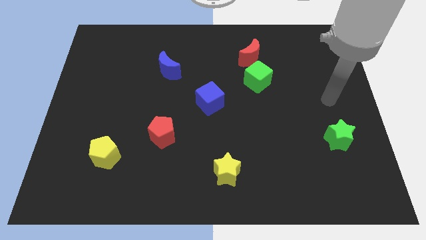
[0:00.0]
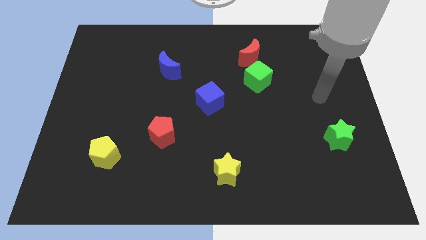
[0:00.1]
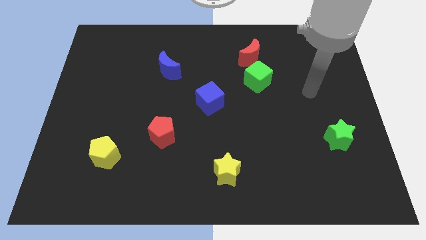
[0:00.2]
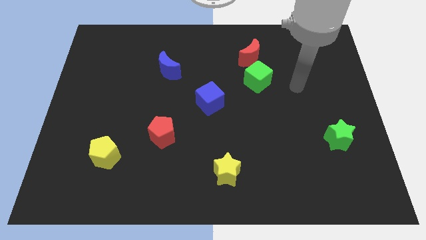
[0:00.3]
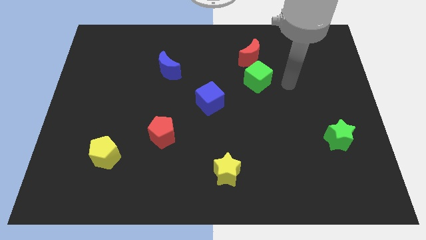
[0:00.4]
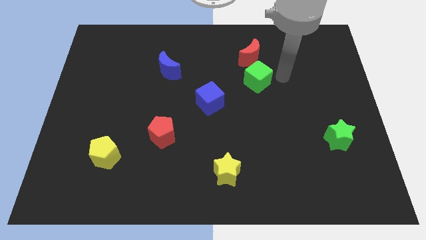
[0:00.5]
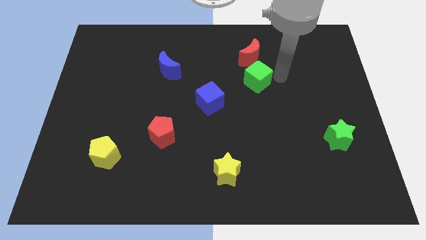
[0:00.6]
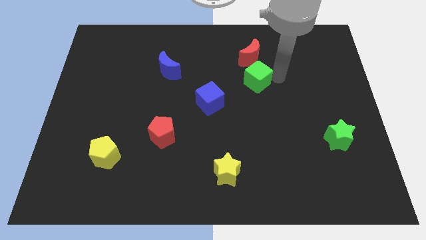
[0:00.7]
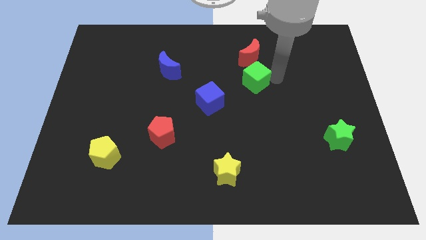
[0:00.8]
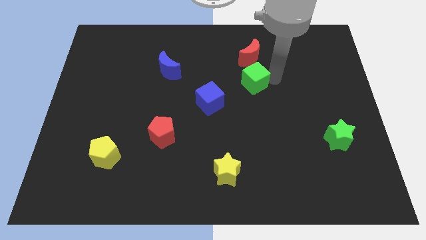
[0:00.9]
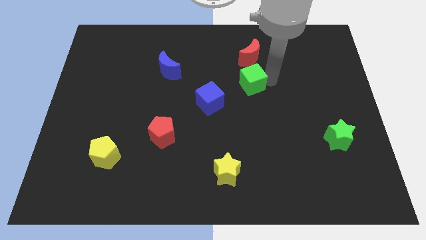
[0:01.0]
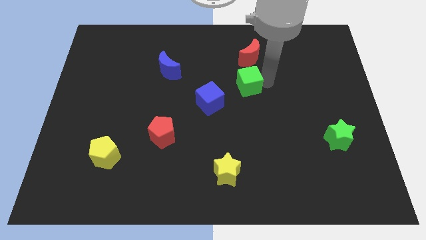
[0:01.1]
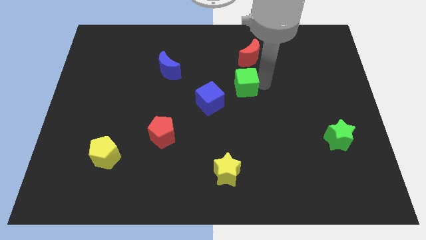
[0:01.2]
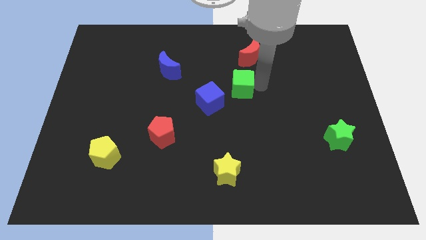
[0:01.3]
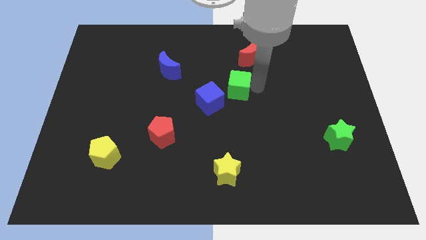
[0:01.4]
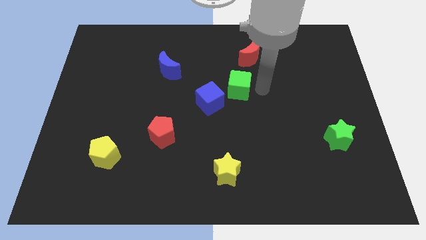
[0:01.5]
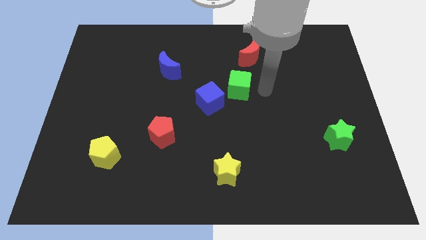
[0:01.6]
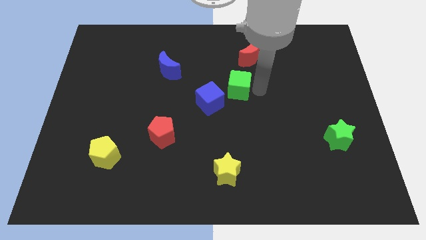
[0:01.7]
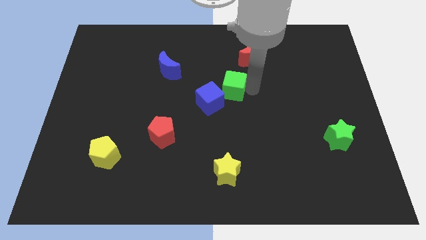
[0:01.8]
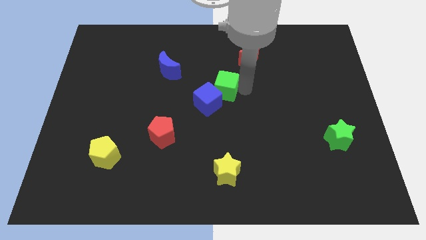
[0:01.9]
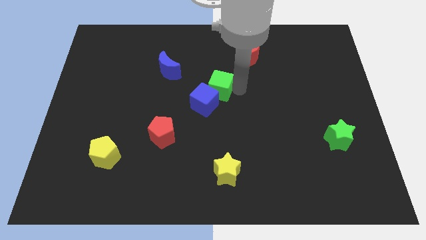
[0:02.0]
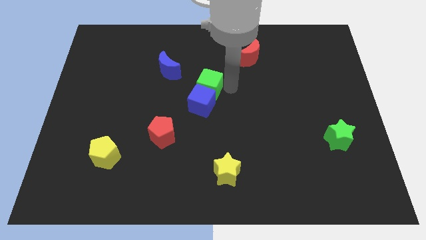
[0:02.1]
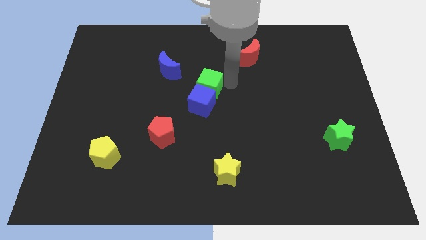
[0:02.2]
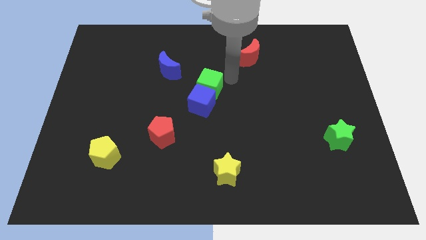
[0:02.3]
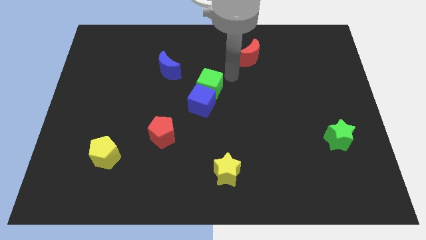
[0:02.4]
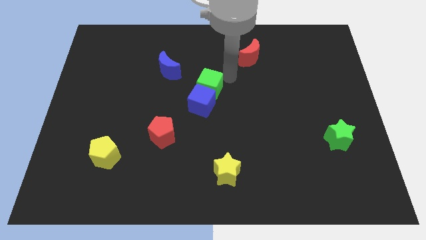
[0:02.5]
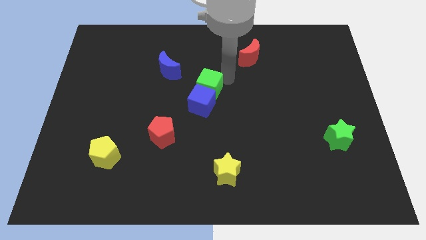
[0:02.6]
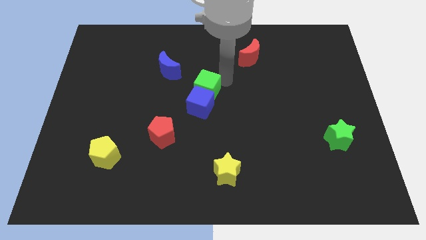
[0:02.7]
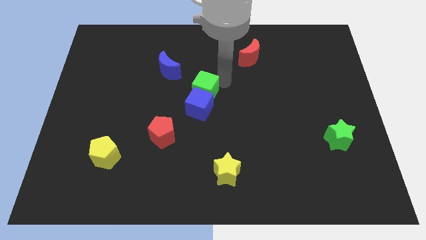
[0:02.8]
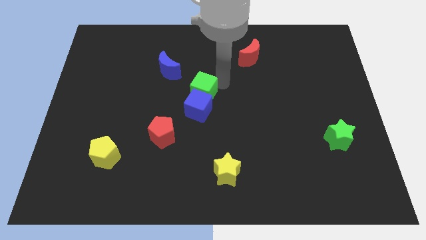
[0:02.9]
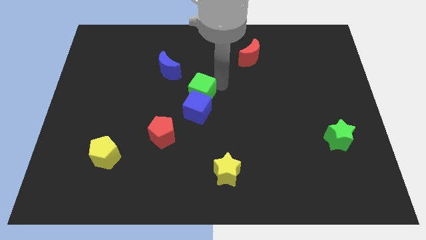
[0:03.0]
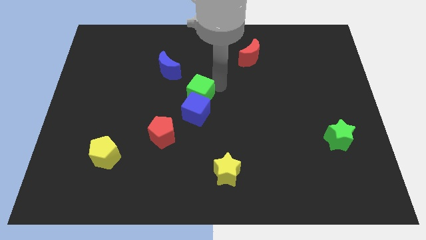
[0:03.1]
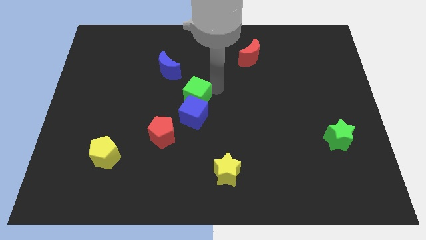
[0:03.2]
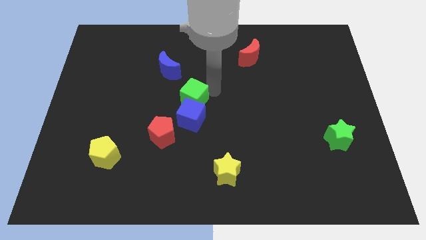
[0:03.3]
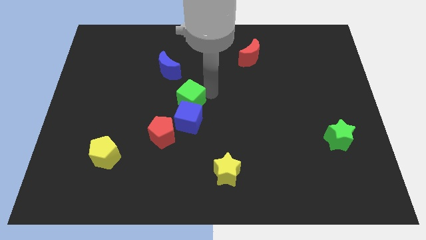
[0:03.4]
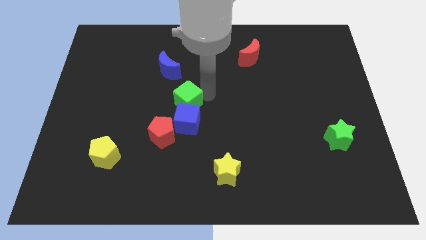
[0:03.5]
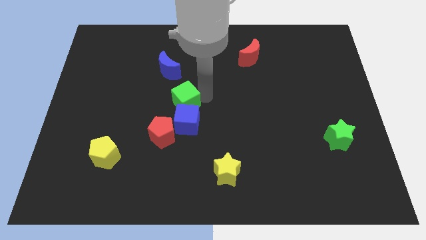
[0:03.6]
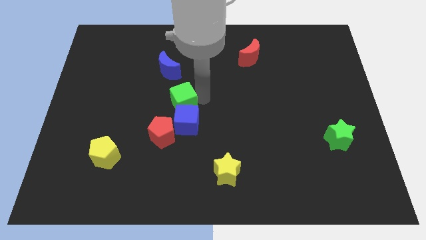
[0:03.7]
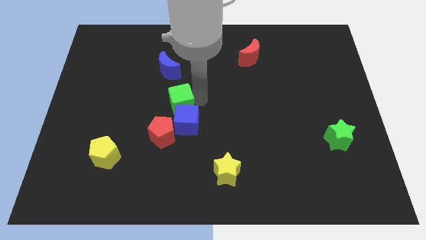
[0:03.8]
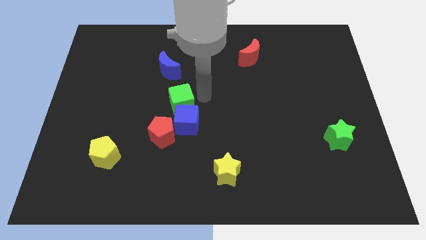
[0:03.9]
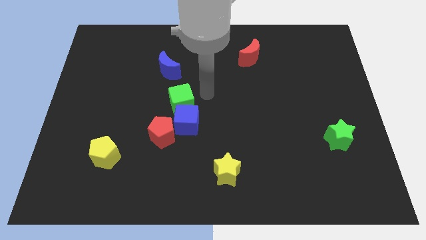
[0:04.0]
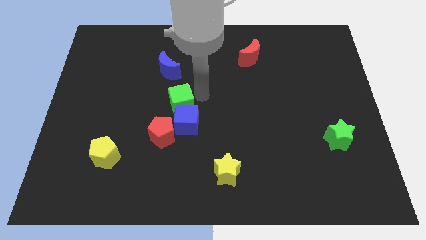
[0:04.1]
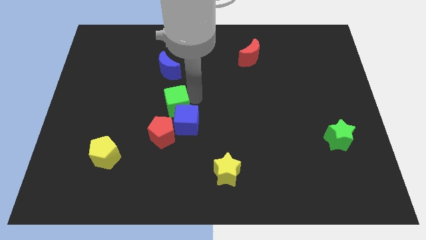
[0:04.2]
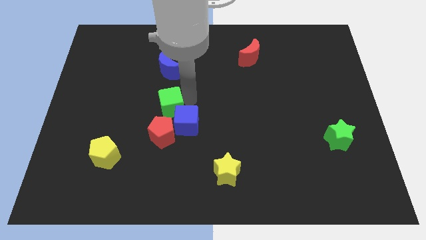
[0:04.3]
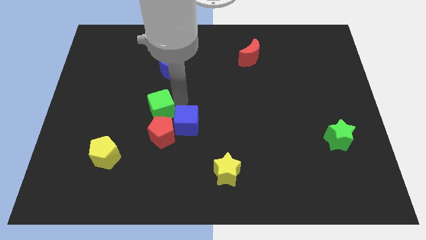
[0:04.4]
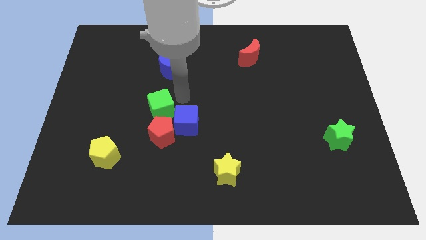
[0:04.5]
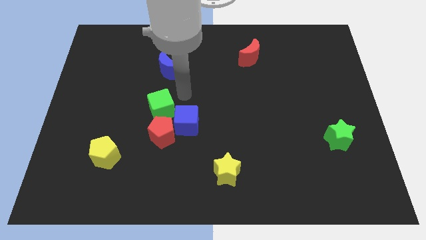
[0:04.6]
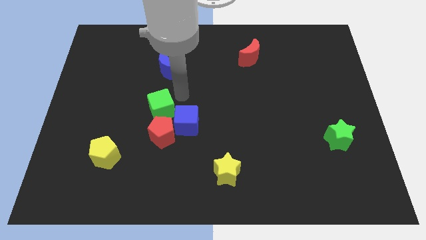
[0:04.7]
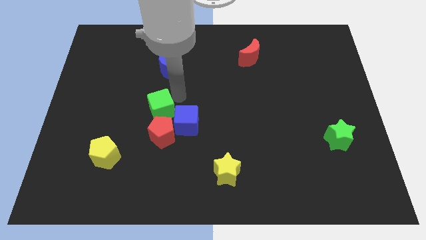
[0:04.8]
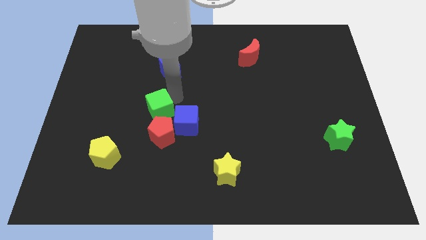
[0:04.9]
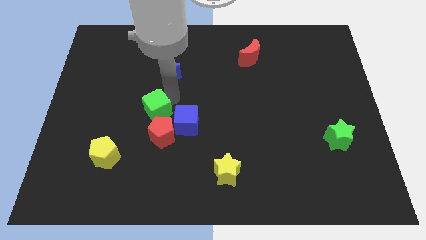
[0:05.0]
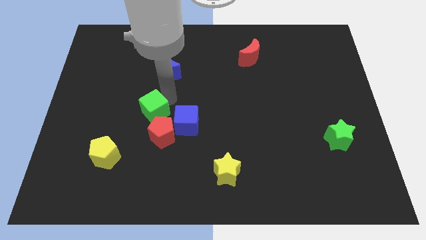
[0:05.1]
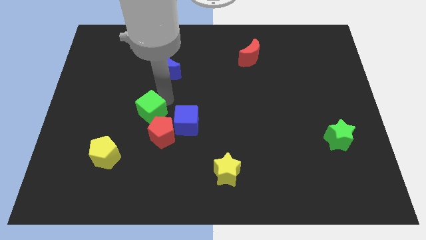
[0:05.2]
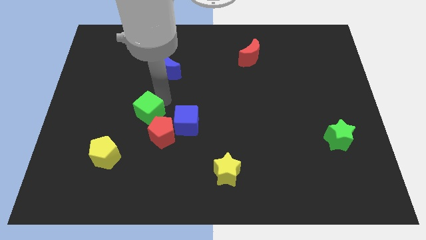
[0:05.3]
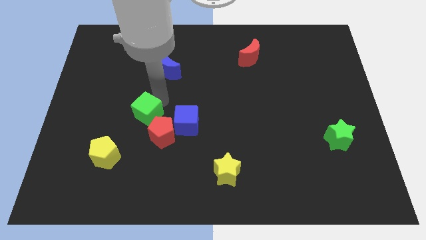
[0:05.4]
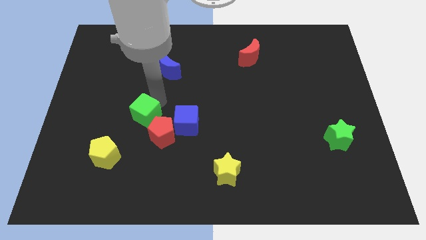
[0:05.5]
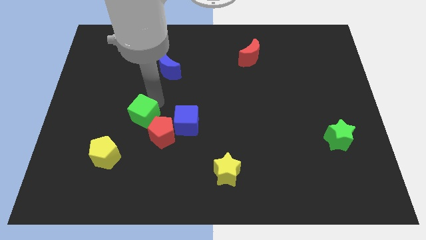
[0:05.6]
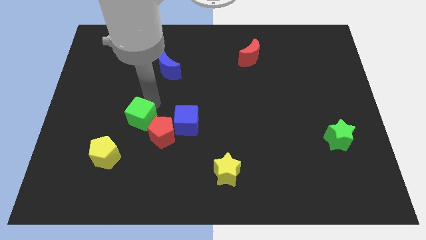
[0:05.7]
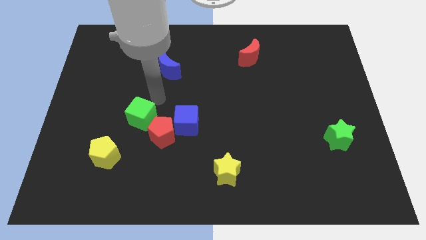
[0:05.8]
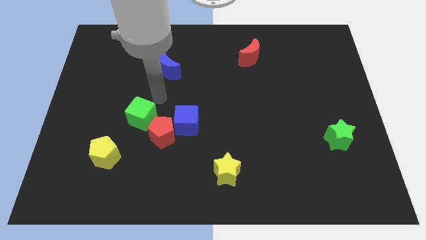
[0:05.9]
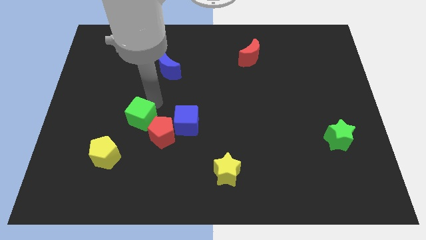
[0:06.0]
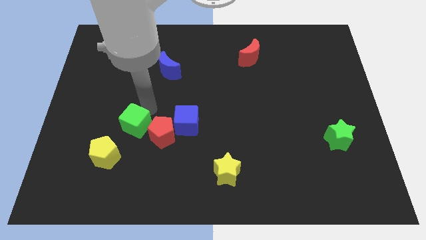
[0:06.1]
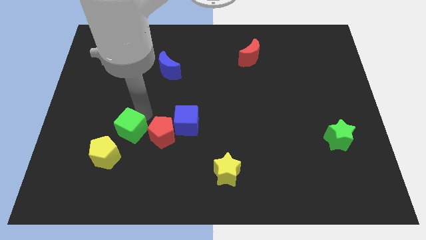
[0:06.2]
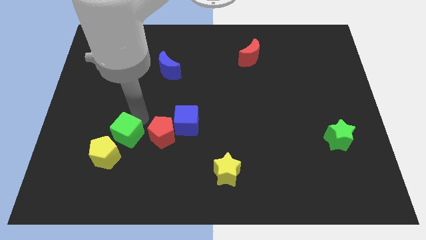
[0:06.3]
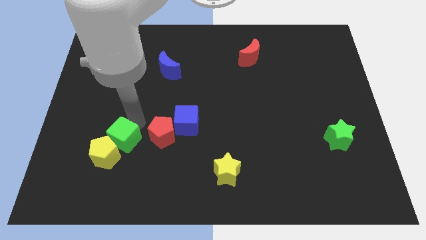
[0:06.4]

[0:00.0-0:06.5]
push the green cube next to the yellow pentagon

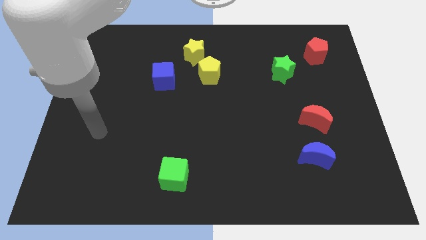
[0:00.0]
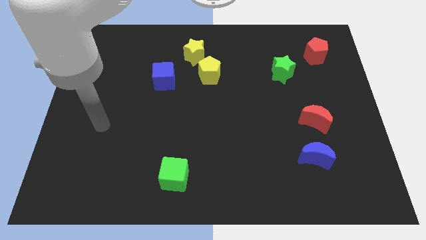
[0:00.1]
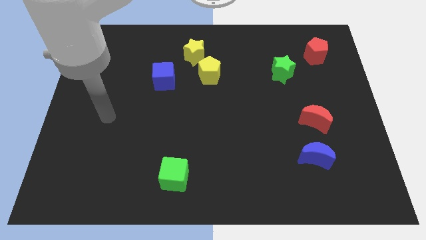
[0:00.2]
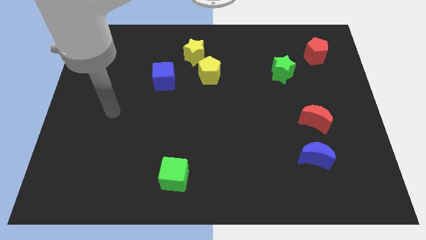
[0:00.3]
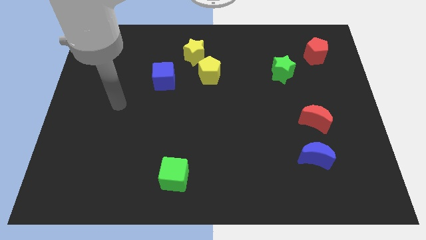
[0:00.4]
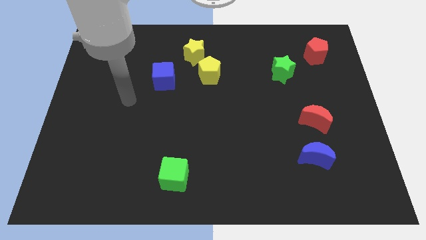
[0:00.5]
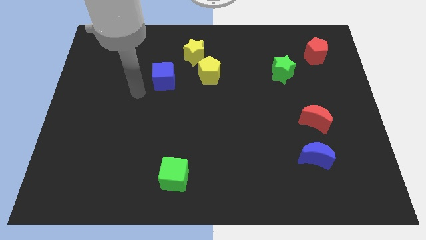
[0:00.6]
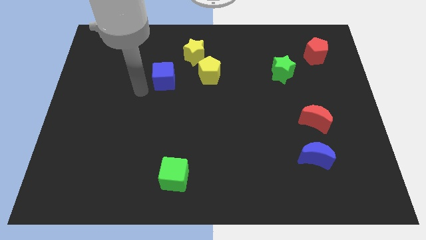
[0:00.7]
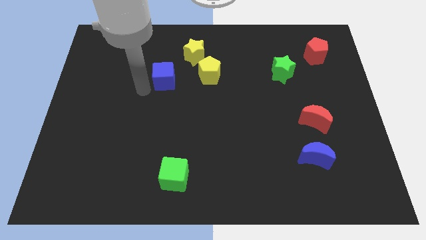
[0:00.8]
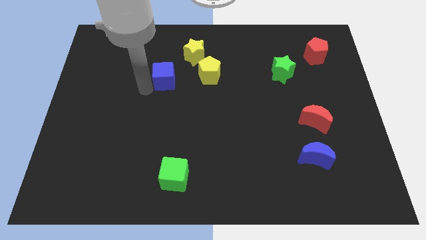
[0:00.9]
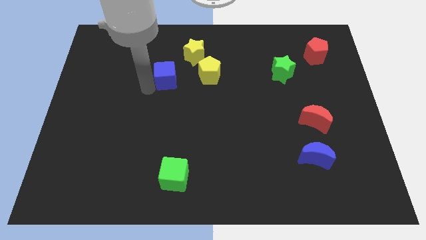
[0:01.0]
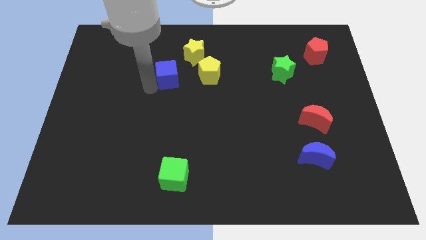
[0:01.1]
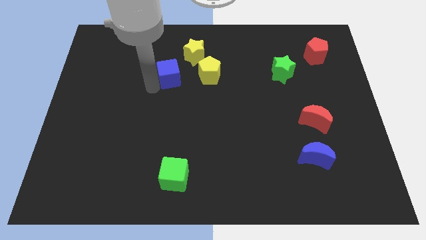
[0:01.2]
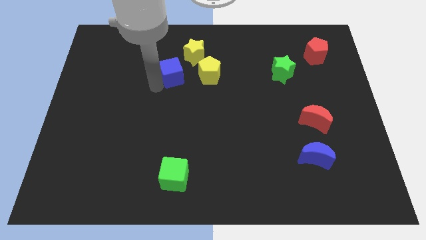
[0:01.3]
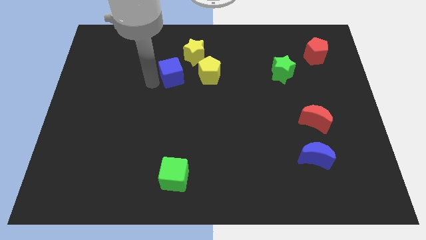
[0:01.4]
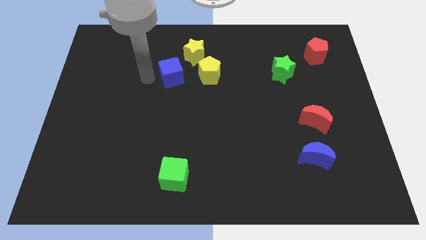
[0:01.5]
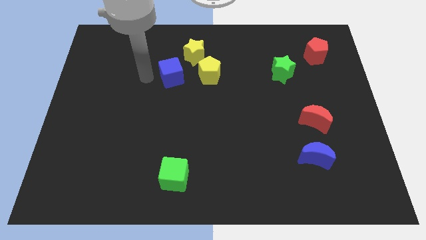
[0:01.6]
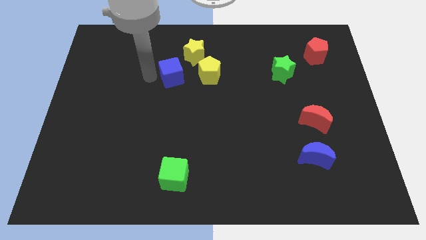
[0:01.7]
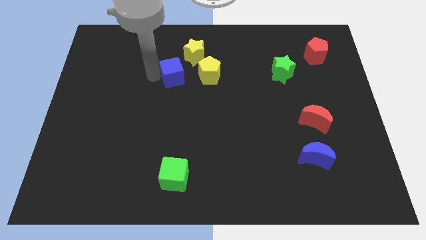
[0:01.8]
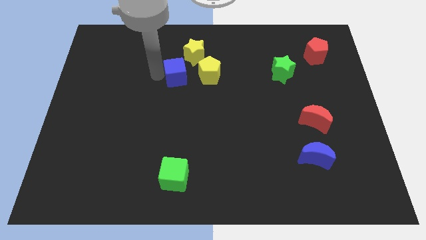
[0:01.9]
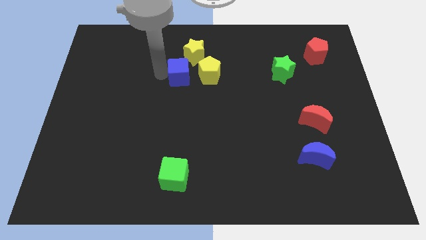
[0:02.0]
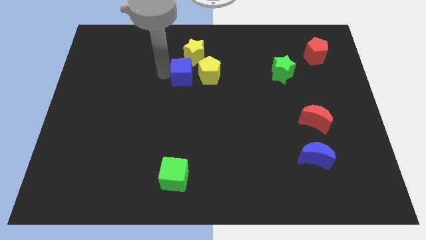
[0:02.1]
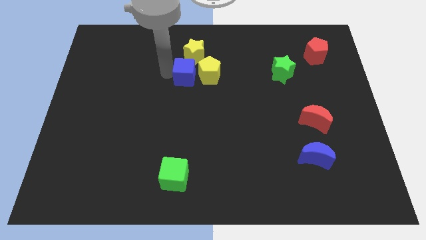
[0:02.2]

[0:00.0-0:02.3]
put the blue cube close to the yellow pentagon
